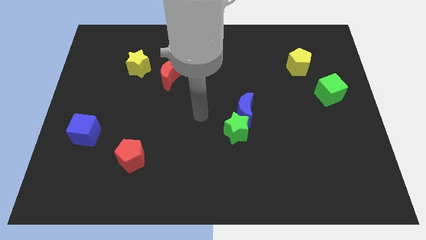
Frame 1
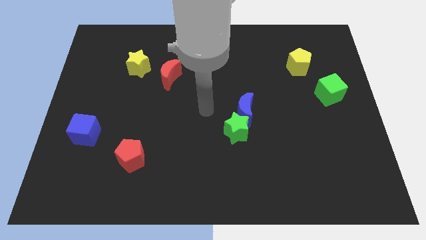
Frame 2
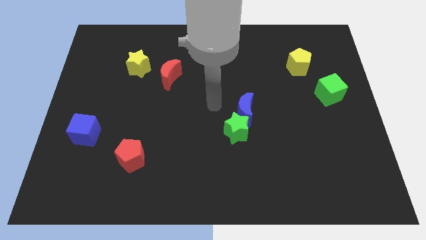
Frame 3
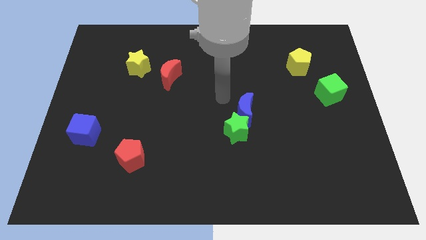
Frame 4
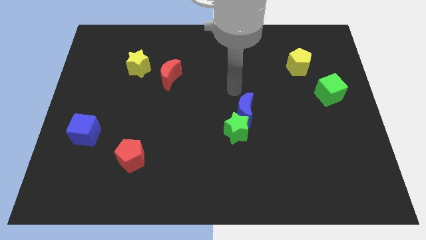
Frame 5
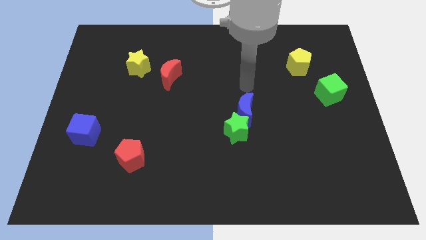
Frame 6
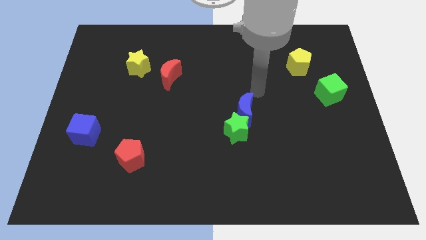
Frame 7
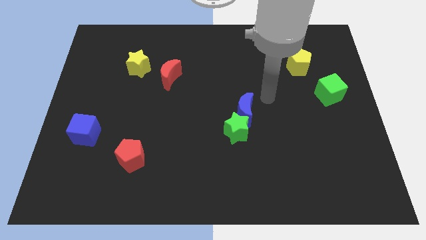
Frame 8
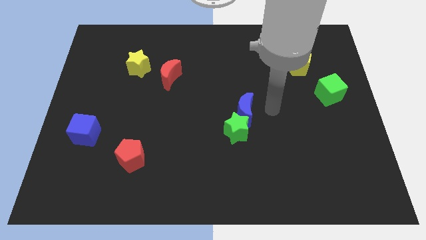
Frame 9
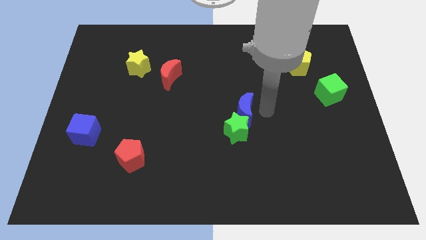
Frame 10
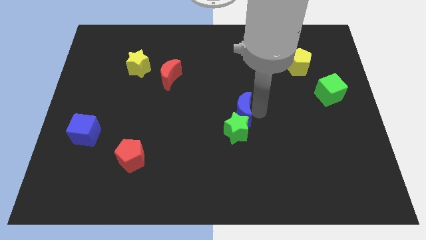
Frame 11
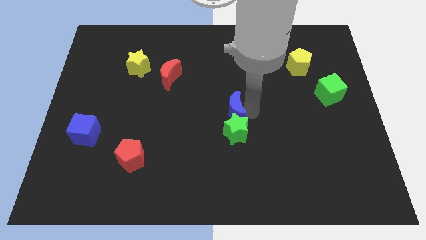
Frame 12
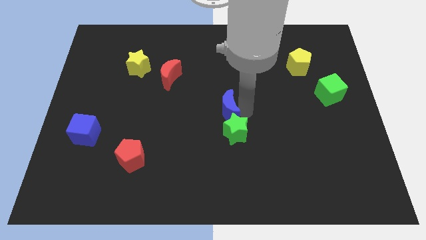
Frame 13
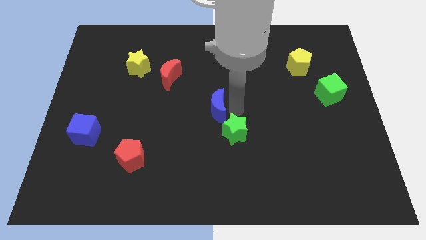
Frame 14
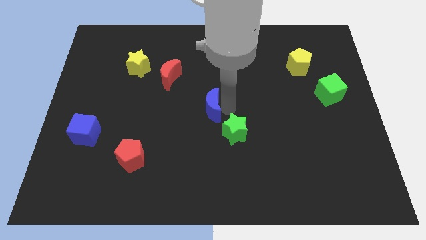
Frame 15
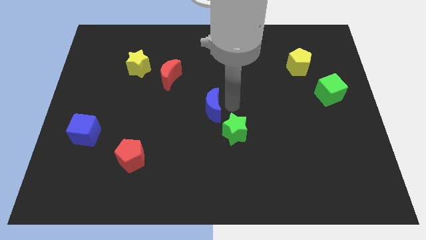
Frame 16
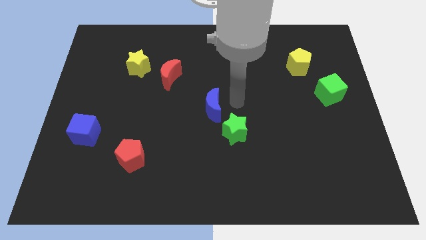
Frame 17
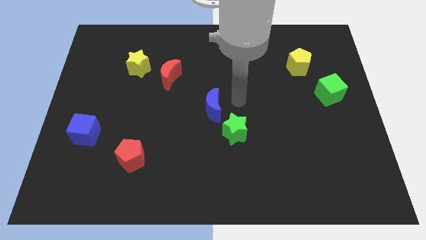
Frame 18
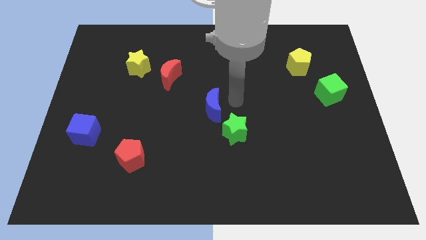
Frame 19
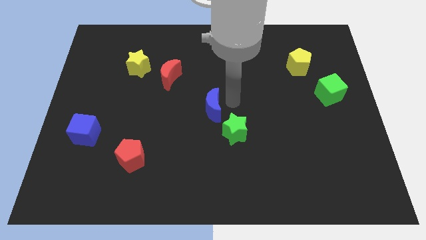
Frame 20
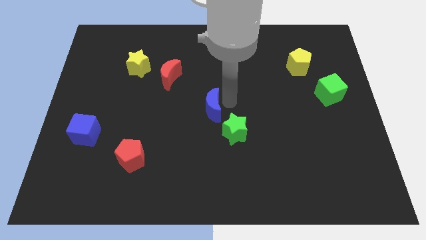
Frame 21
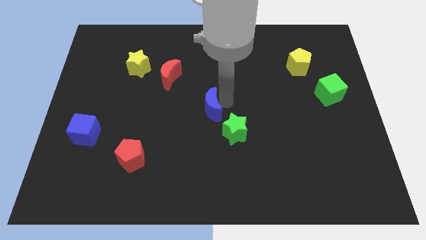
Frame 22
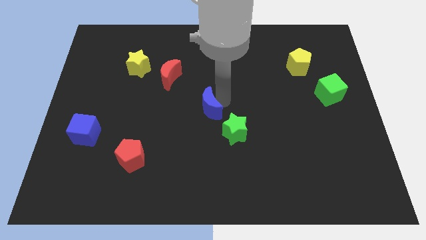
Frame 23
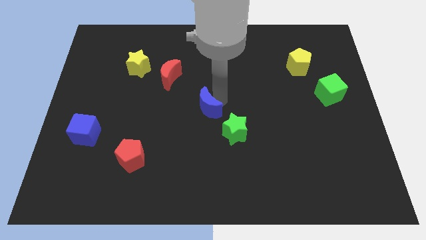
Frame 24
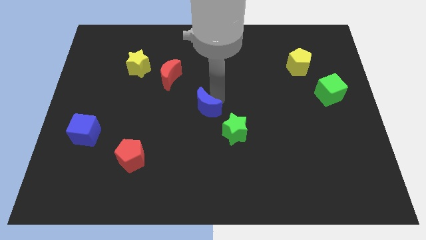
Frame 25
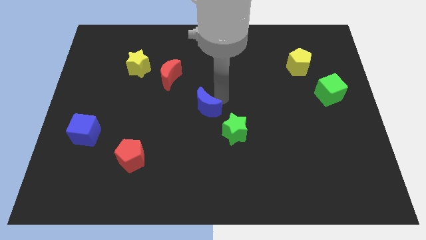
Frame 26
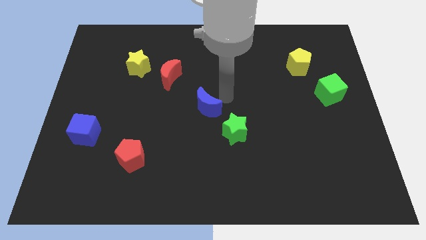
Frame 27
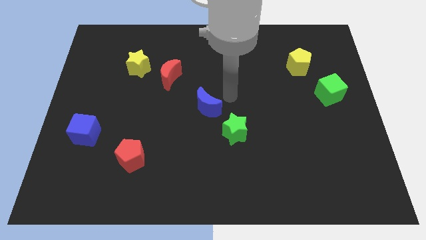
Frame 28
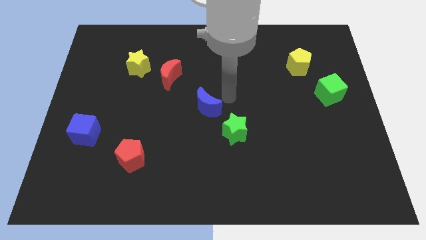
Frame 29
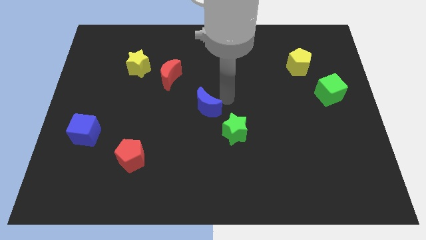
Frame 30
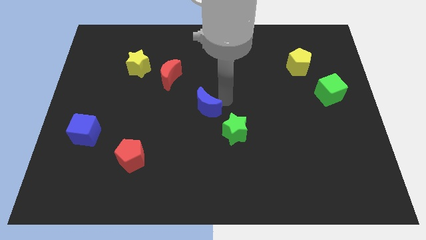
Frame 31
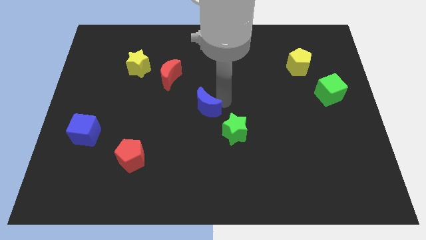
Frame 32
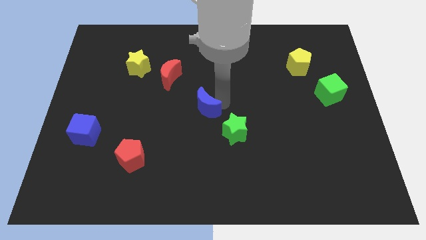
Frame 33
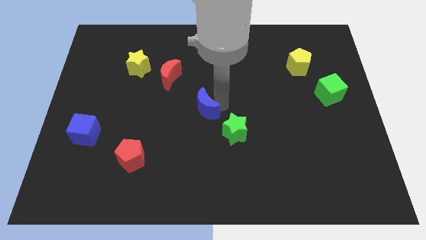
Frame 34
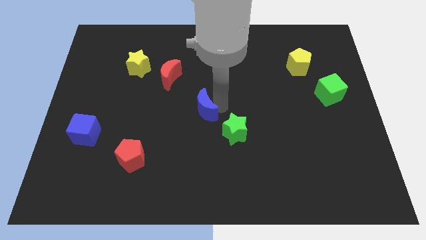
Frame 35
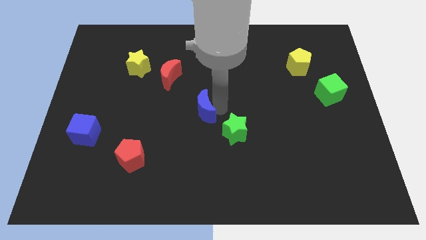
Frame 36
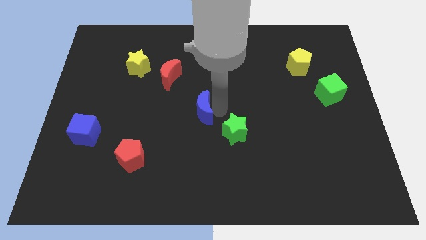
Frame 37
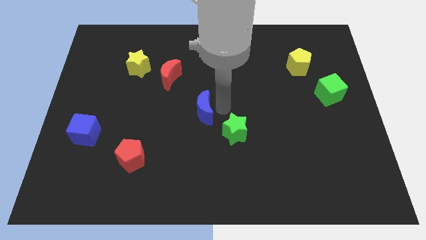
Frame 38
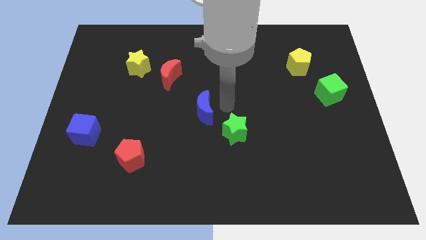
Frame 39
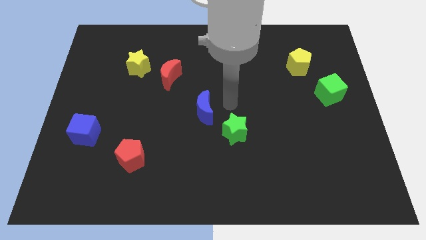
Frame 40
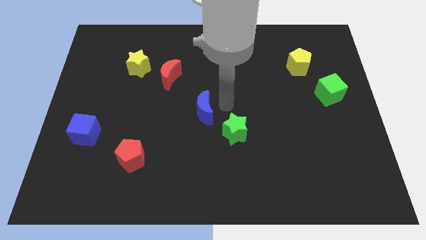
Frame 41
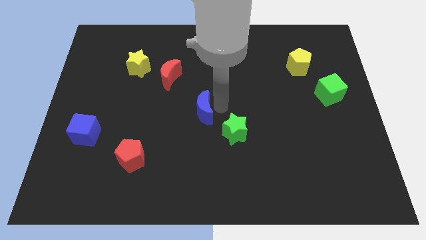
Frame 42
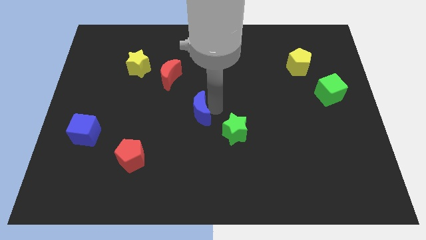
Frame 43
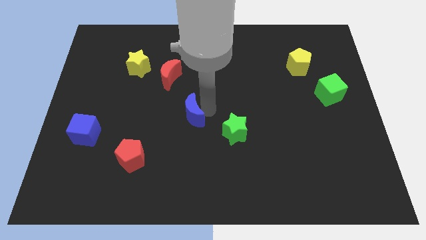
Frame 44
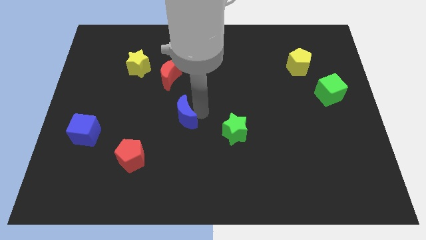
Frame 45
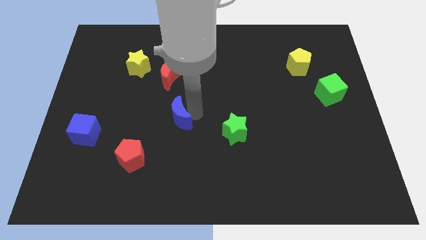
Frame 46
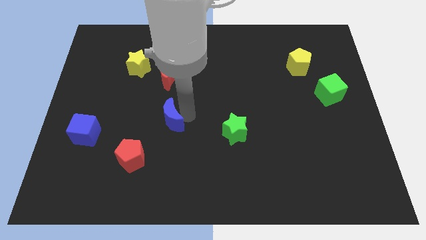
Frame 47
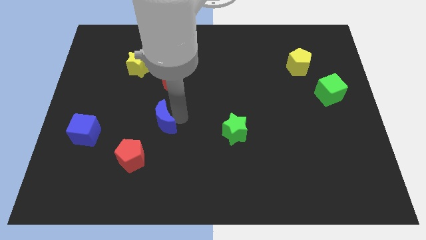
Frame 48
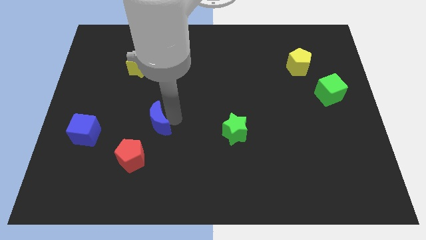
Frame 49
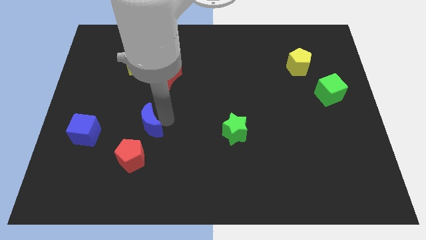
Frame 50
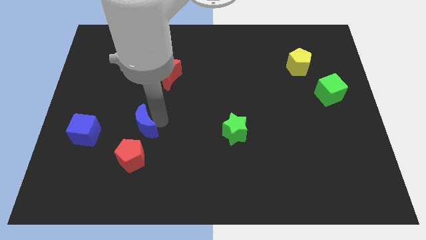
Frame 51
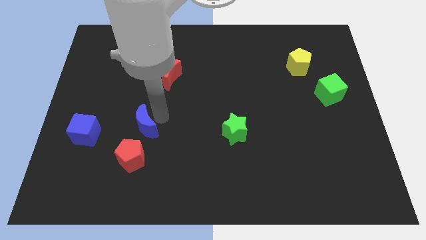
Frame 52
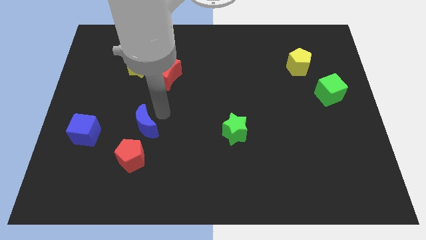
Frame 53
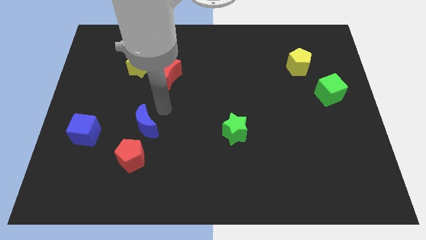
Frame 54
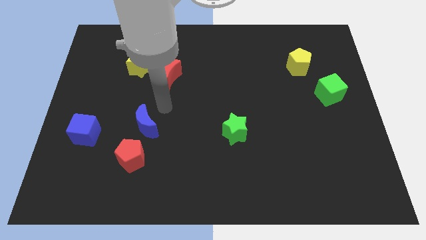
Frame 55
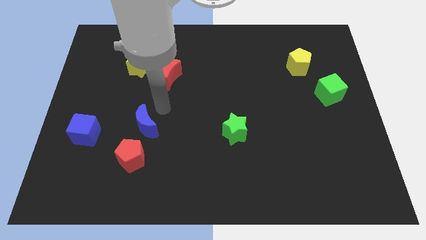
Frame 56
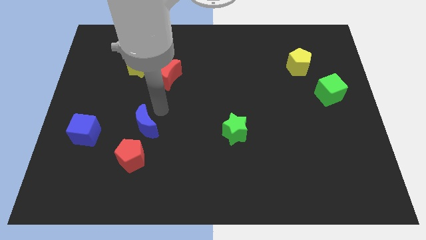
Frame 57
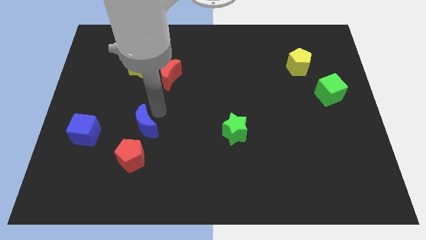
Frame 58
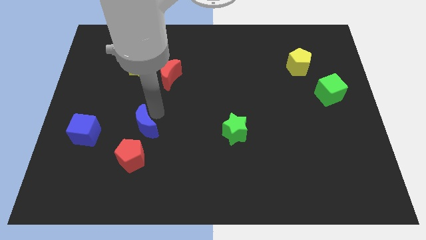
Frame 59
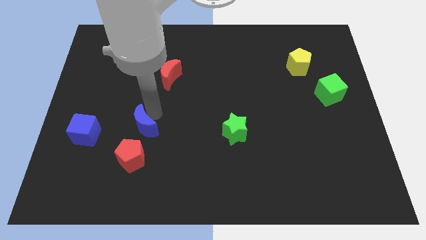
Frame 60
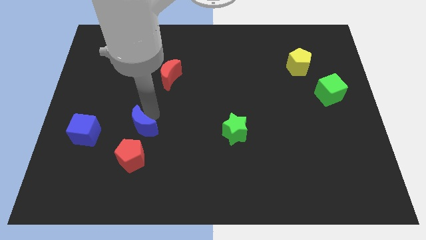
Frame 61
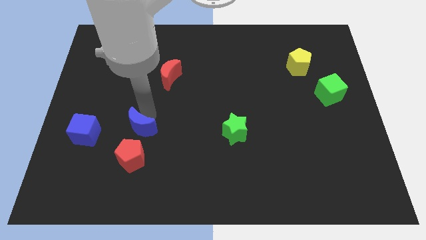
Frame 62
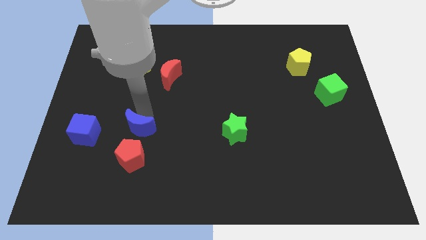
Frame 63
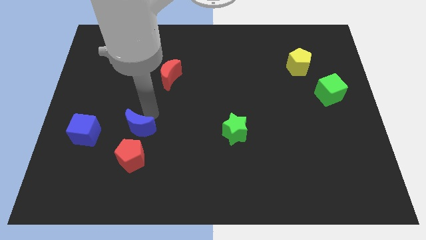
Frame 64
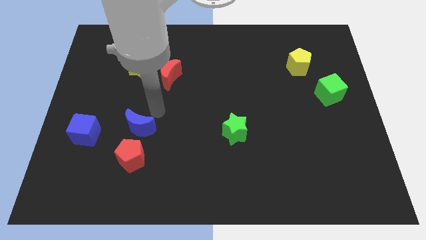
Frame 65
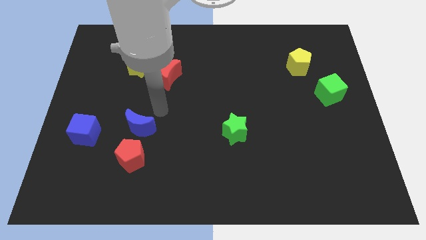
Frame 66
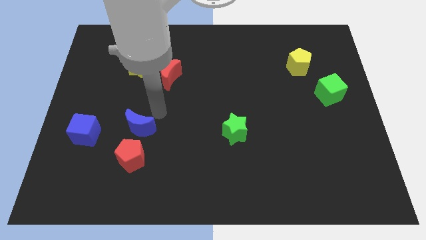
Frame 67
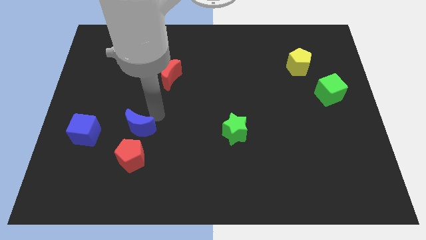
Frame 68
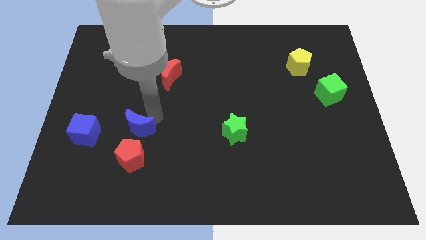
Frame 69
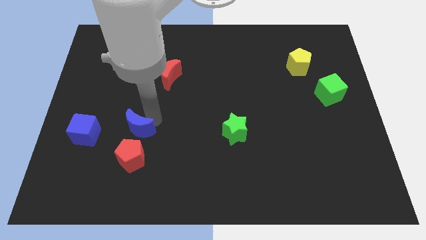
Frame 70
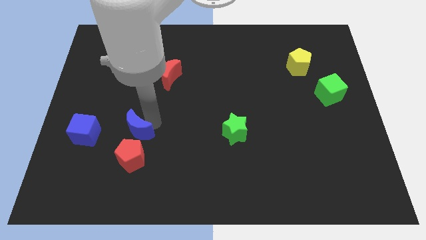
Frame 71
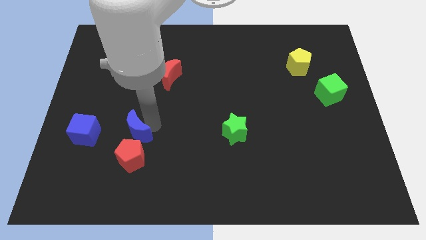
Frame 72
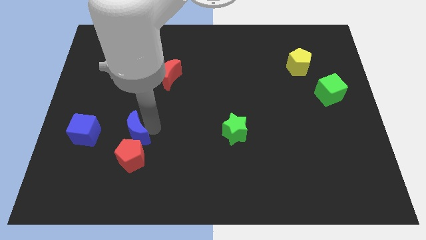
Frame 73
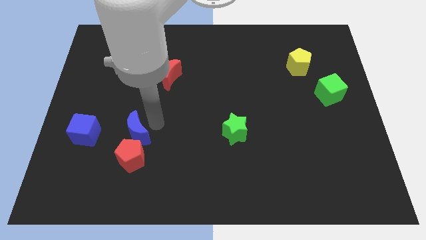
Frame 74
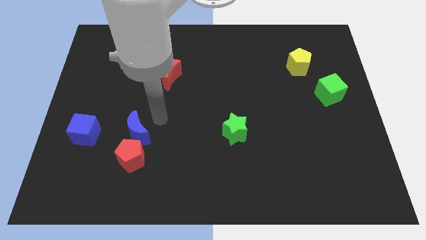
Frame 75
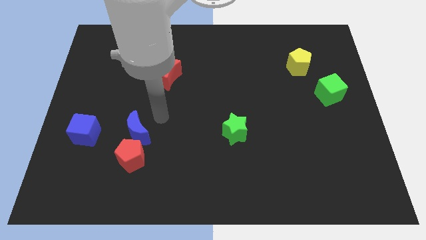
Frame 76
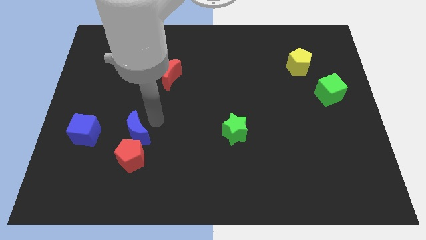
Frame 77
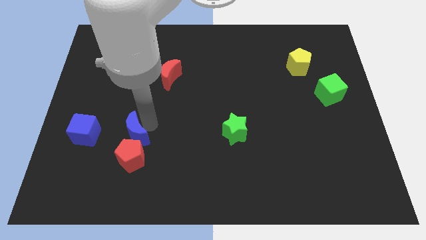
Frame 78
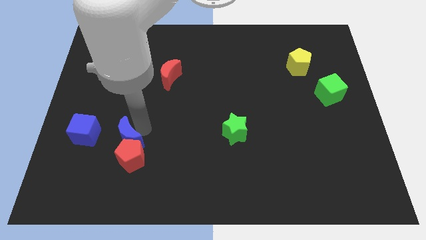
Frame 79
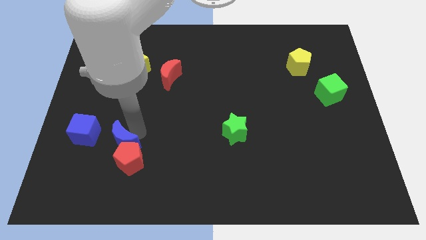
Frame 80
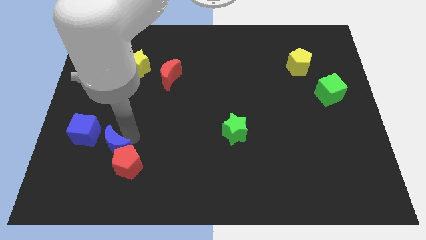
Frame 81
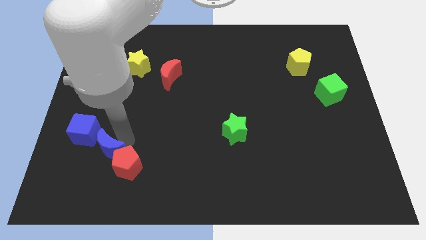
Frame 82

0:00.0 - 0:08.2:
push the blue moon just left of the red pentagon
